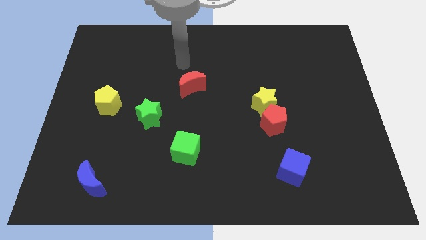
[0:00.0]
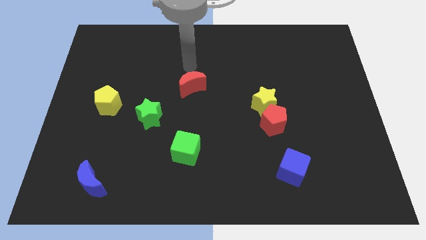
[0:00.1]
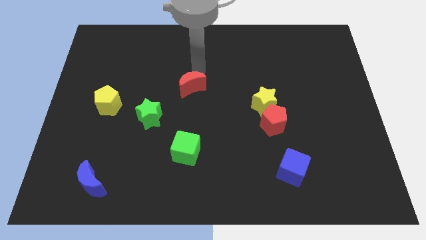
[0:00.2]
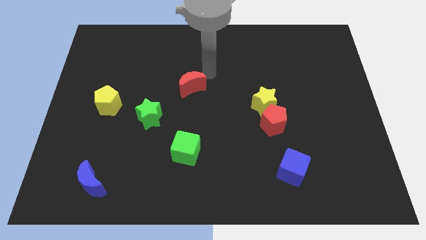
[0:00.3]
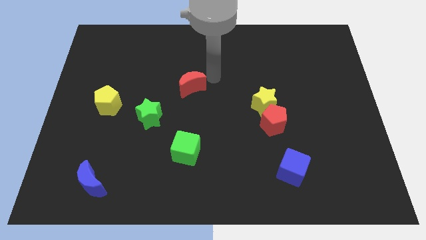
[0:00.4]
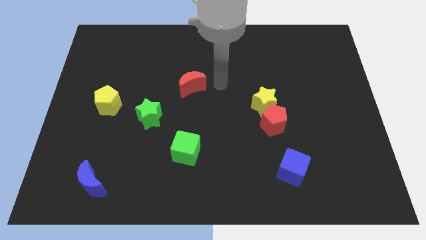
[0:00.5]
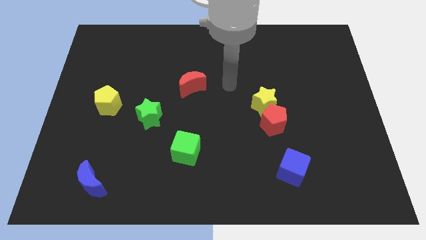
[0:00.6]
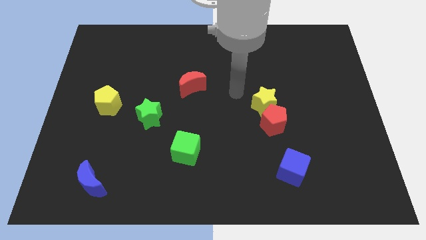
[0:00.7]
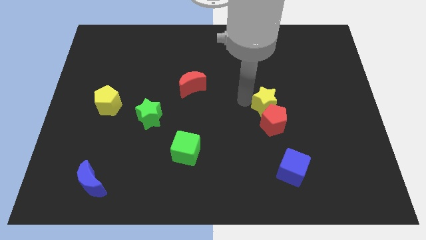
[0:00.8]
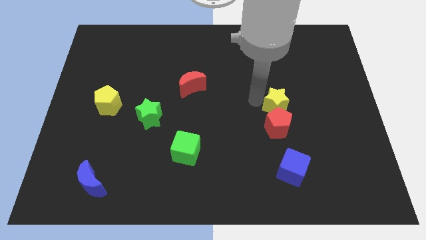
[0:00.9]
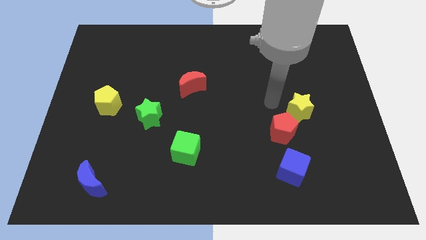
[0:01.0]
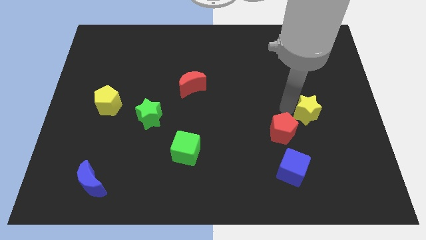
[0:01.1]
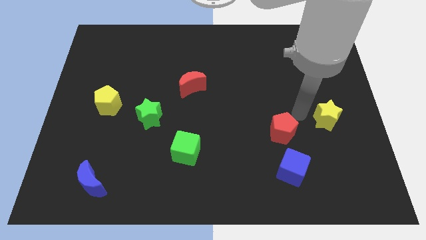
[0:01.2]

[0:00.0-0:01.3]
separate the red pentagon from the yellow star

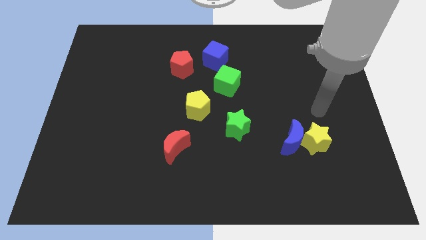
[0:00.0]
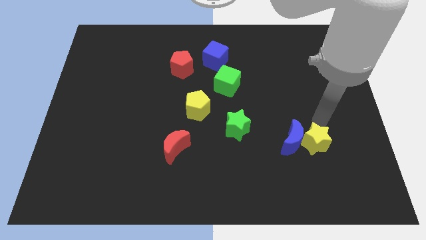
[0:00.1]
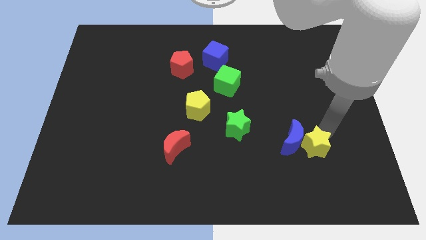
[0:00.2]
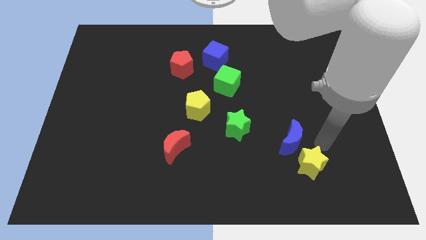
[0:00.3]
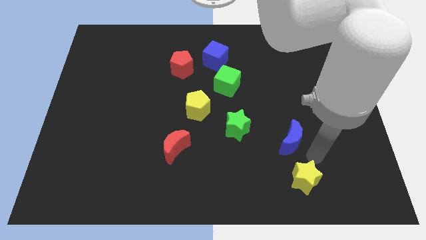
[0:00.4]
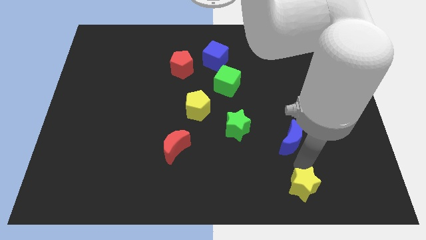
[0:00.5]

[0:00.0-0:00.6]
pull the blue moon apart from the yellow star

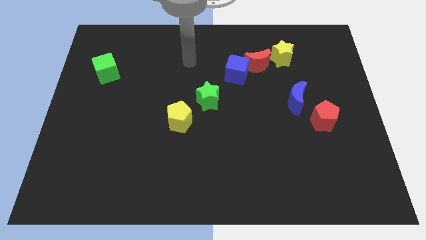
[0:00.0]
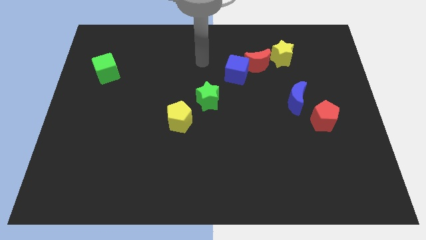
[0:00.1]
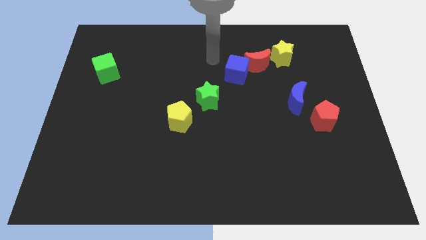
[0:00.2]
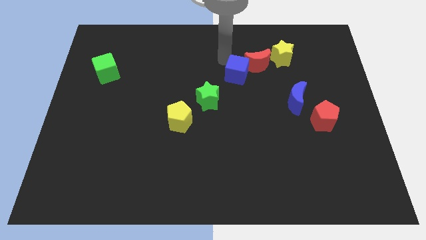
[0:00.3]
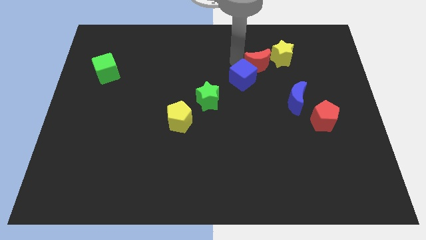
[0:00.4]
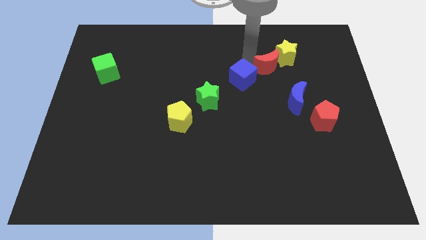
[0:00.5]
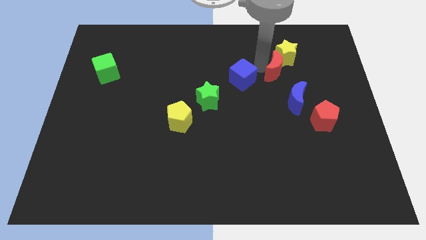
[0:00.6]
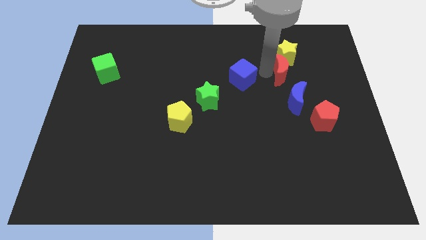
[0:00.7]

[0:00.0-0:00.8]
pull the blue cube apart from the red moon

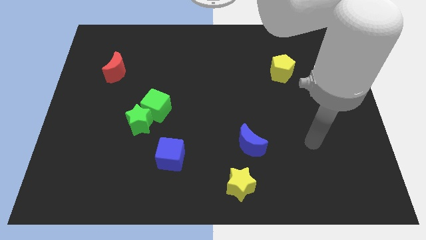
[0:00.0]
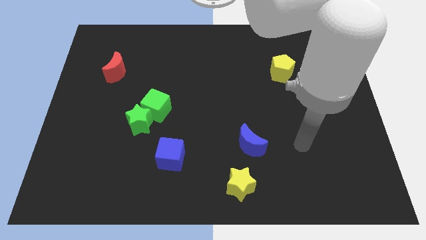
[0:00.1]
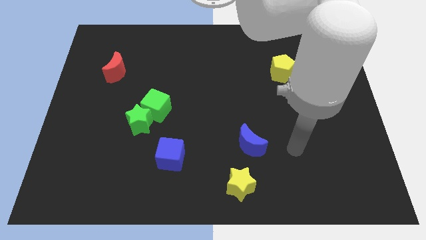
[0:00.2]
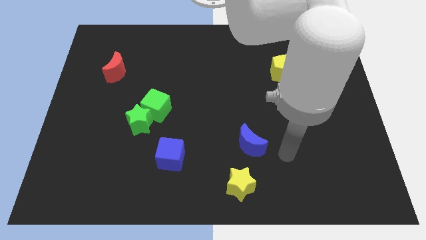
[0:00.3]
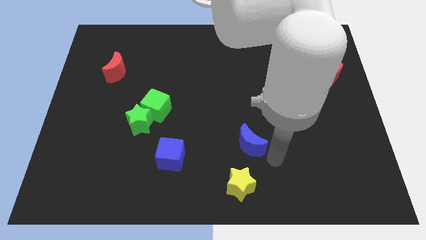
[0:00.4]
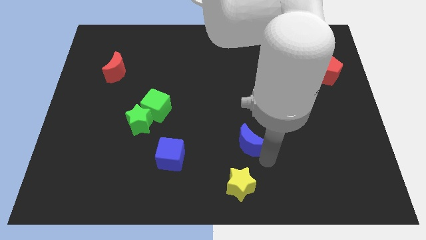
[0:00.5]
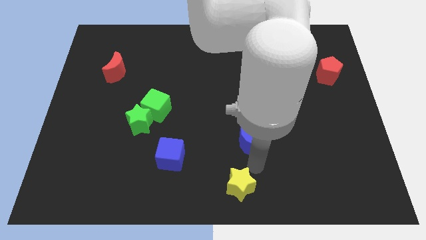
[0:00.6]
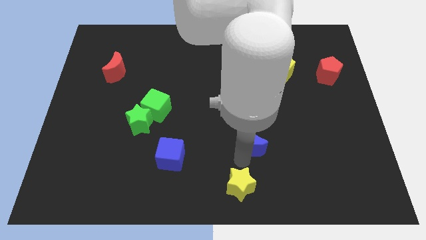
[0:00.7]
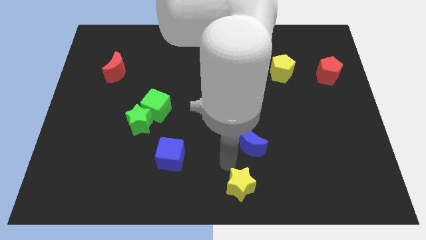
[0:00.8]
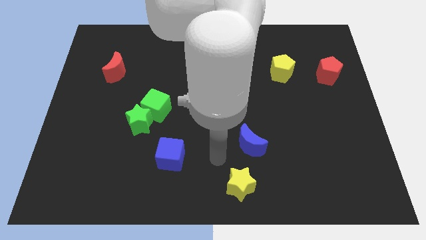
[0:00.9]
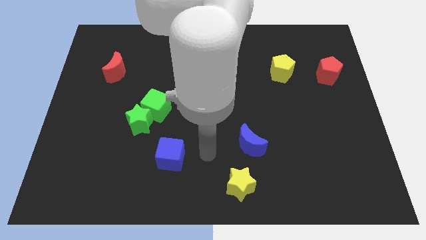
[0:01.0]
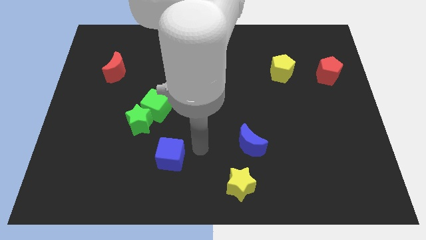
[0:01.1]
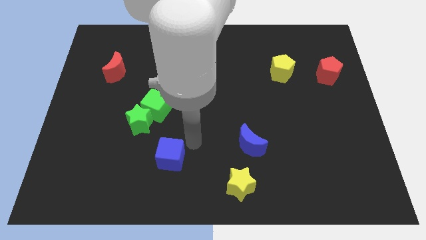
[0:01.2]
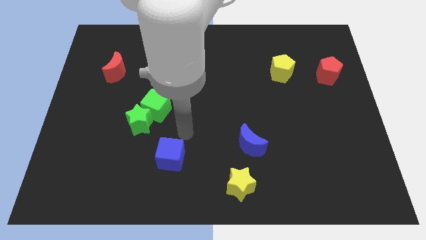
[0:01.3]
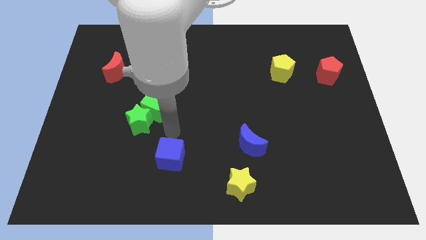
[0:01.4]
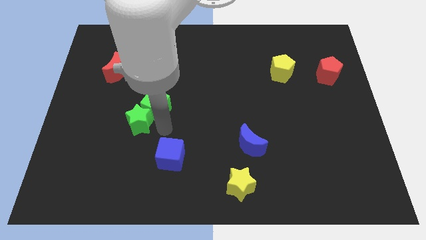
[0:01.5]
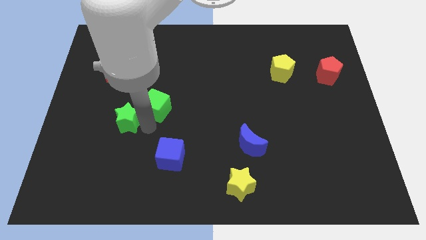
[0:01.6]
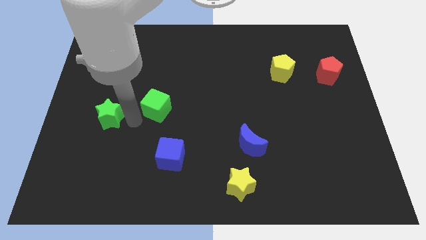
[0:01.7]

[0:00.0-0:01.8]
move the green cube away from the green star

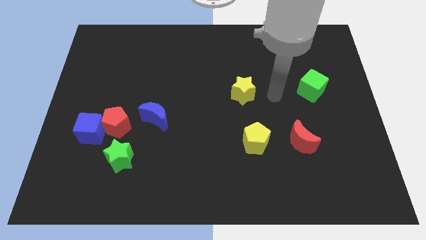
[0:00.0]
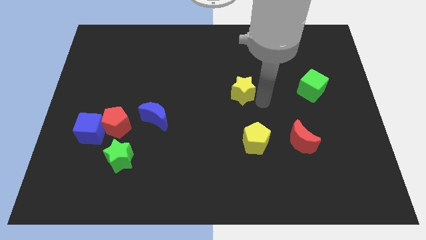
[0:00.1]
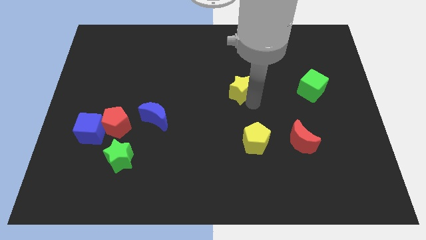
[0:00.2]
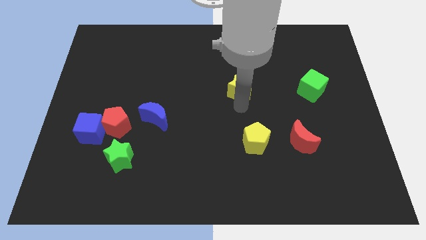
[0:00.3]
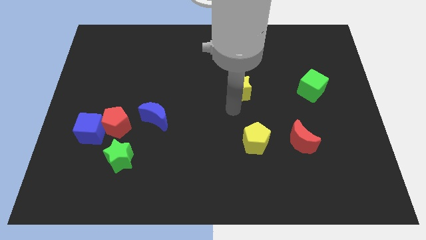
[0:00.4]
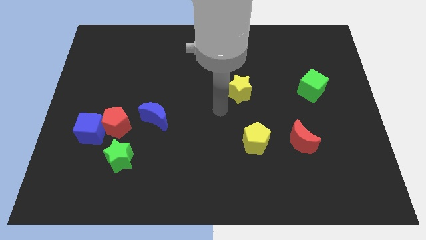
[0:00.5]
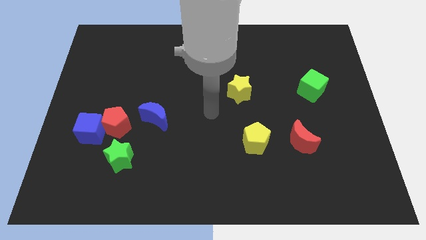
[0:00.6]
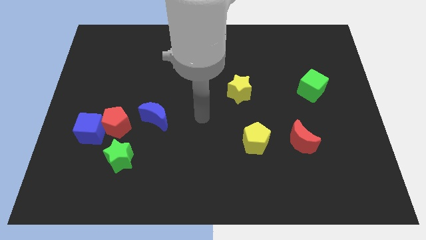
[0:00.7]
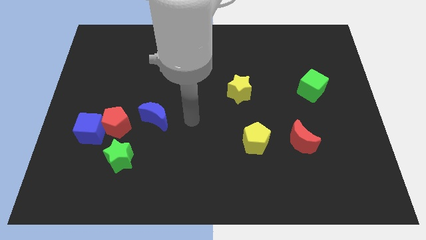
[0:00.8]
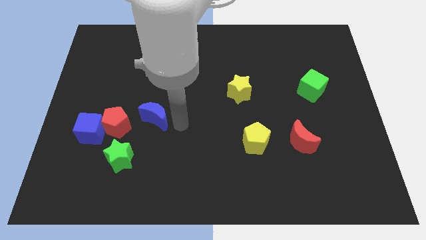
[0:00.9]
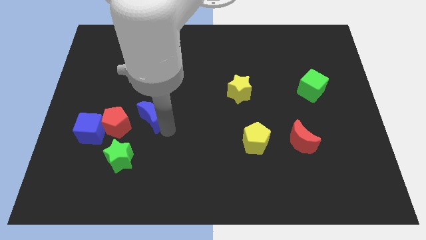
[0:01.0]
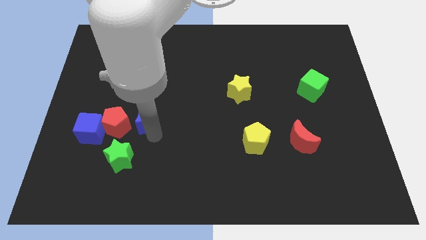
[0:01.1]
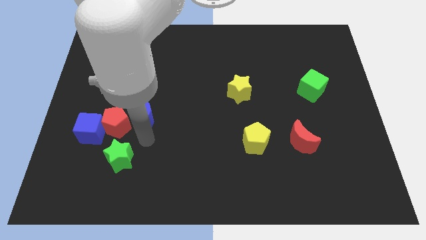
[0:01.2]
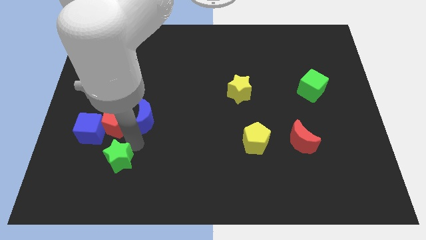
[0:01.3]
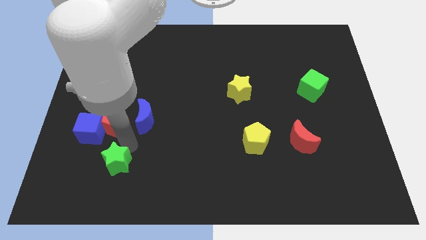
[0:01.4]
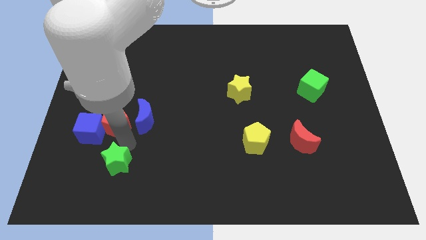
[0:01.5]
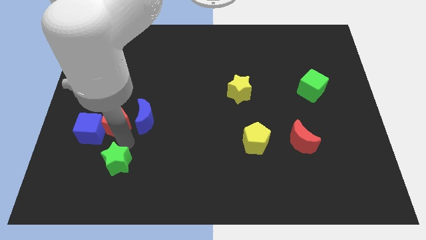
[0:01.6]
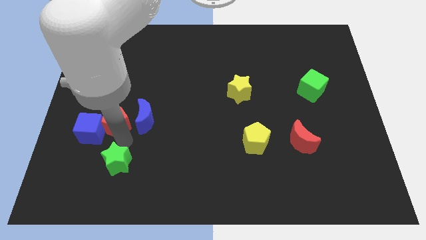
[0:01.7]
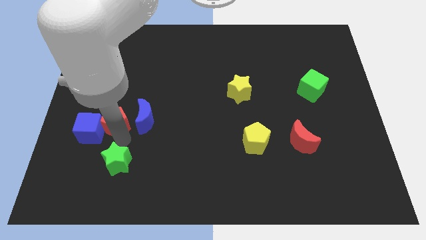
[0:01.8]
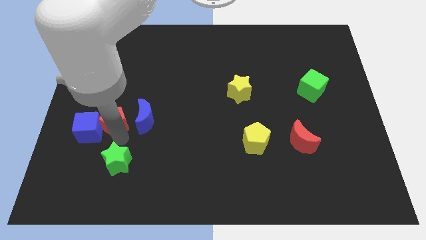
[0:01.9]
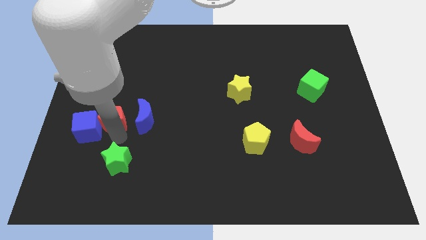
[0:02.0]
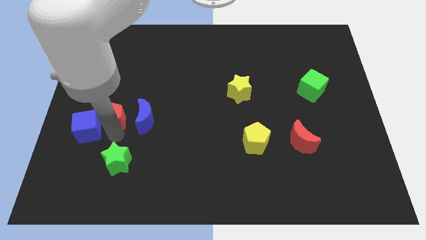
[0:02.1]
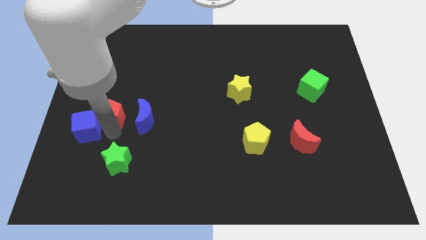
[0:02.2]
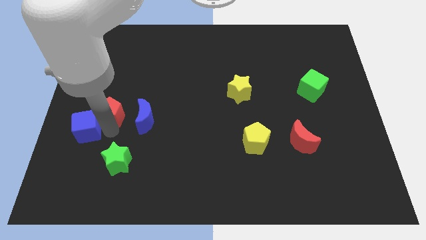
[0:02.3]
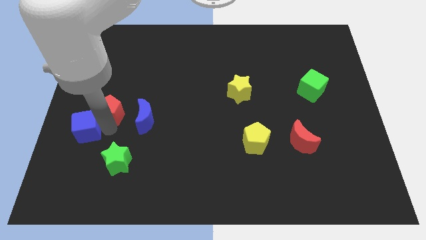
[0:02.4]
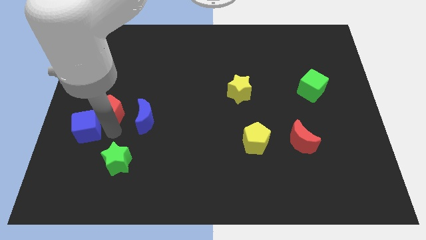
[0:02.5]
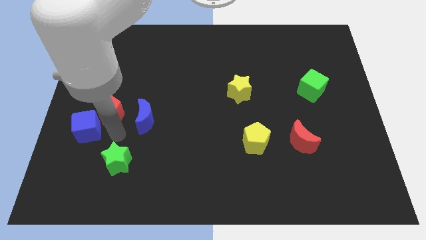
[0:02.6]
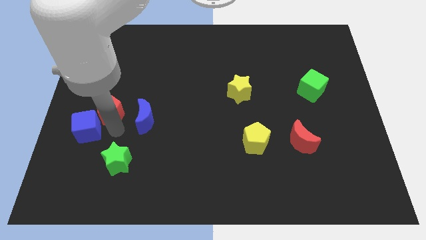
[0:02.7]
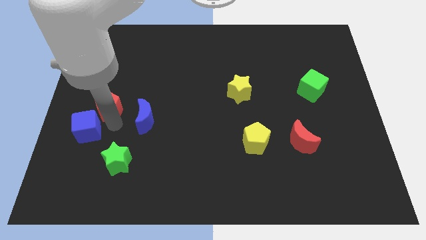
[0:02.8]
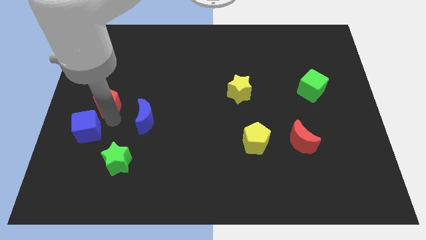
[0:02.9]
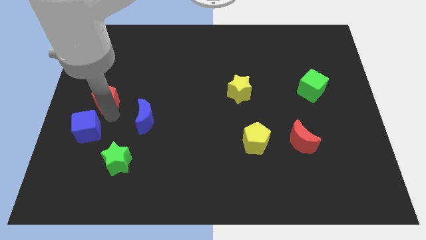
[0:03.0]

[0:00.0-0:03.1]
separate the red pentagon from the group of blocks

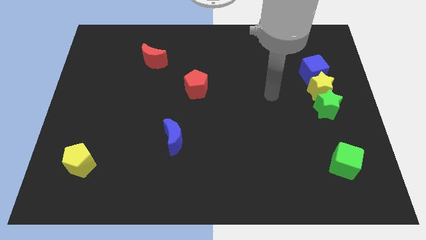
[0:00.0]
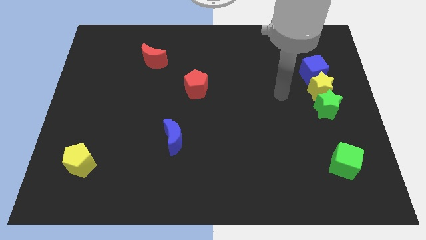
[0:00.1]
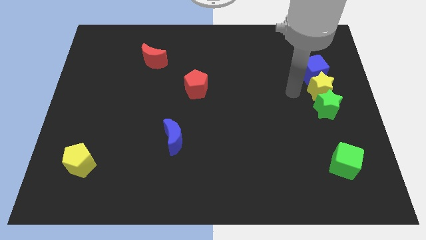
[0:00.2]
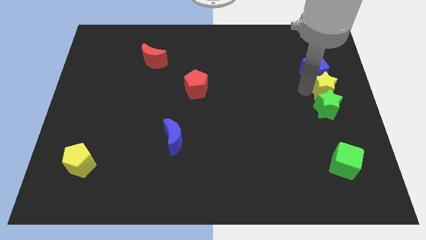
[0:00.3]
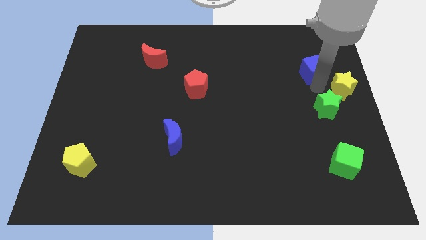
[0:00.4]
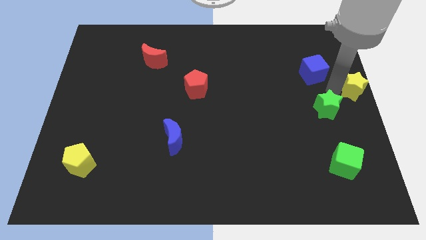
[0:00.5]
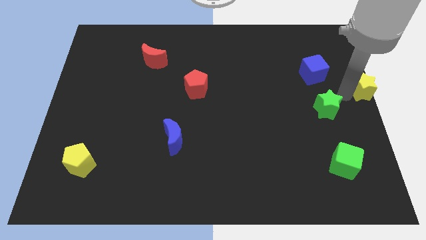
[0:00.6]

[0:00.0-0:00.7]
pull the green star apart from the yellow star

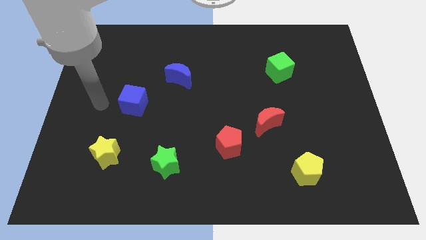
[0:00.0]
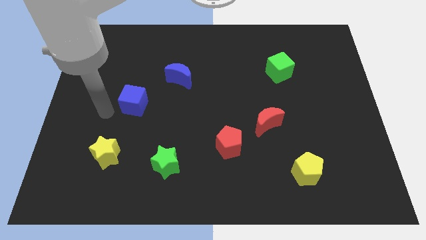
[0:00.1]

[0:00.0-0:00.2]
pull the red moon apart from the red pentagon

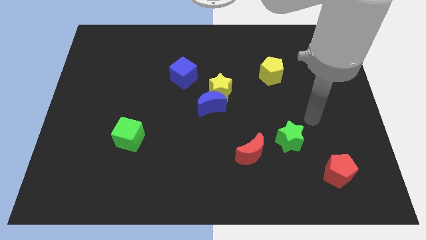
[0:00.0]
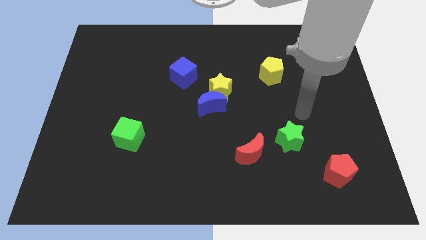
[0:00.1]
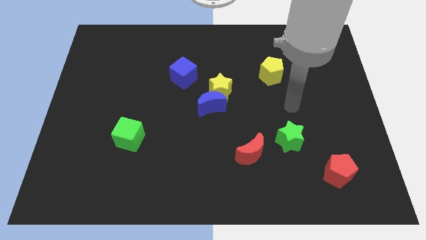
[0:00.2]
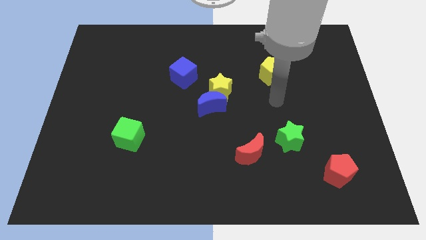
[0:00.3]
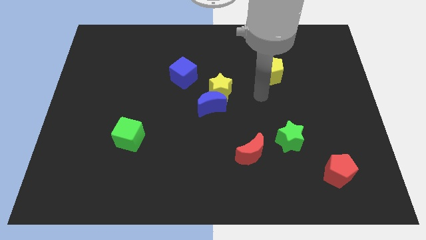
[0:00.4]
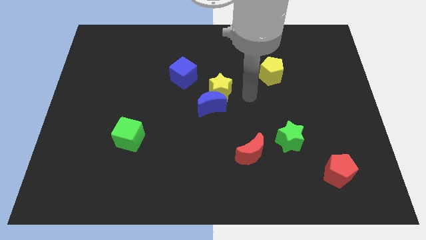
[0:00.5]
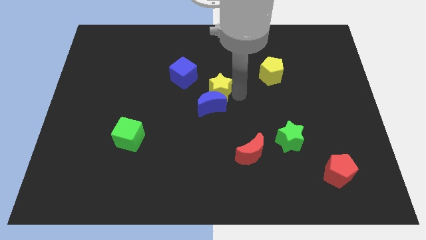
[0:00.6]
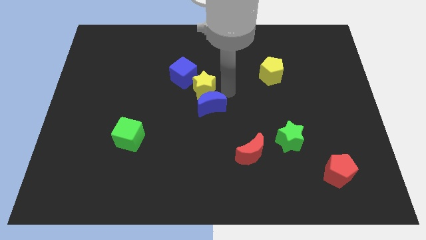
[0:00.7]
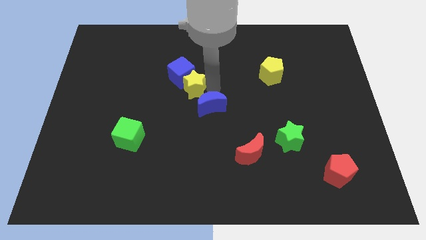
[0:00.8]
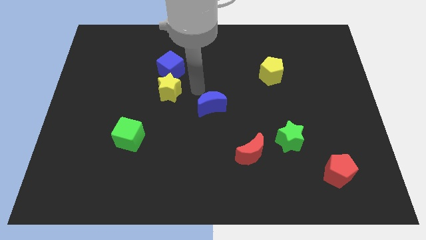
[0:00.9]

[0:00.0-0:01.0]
move the blue moon away from the yellow star
